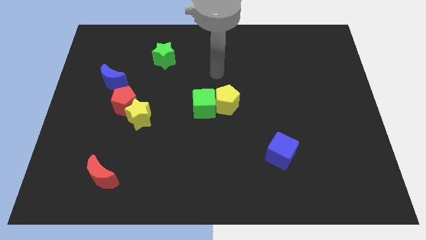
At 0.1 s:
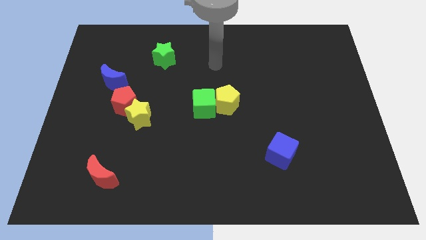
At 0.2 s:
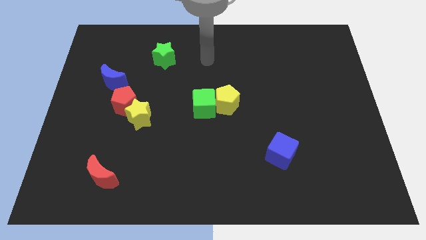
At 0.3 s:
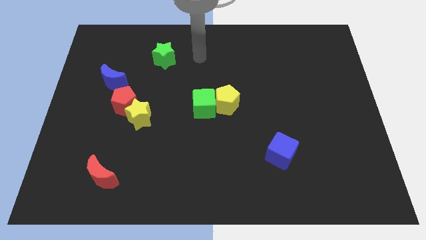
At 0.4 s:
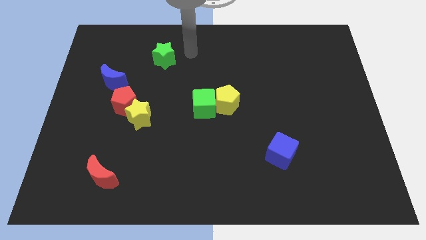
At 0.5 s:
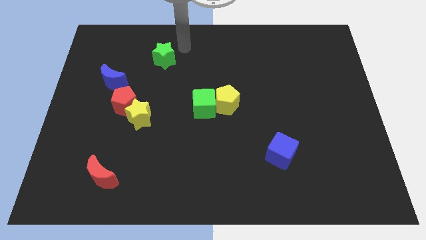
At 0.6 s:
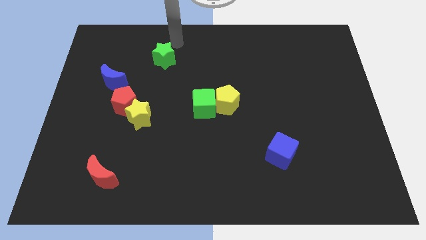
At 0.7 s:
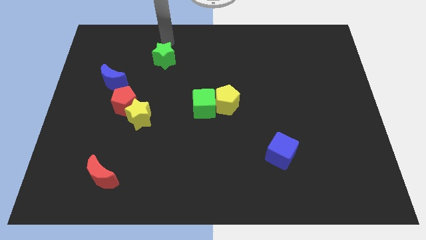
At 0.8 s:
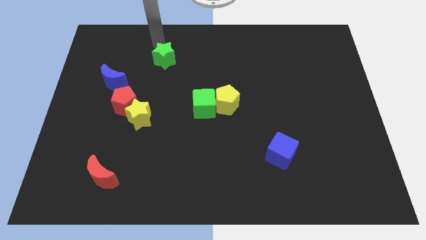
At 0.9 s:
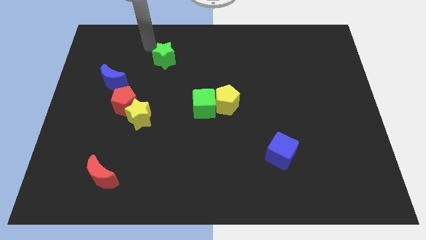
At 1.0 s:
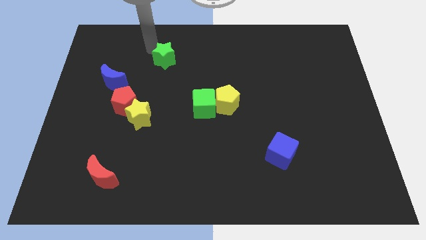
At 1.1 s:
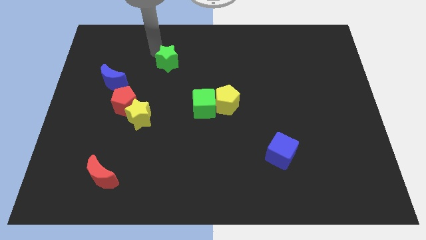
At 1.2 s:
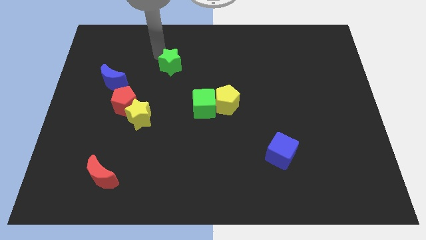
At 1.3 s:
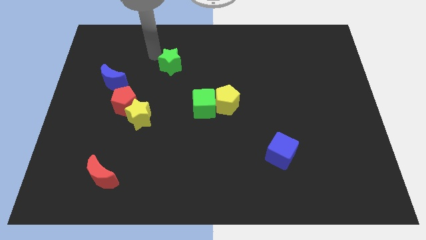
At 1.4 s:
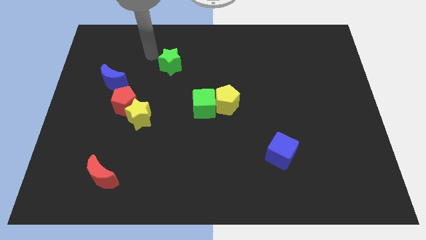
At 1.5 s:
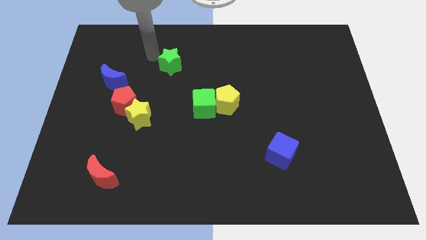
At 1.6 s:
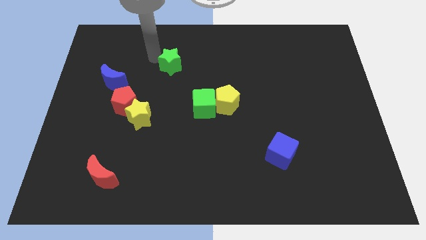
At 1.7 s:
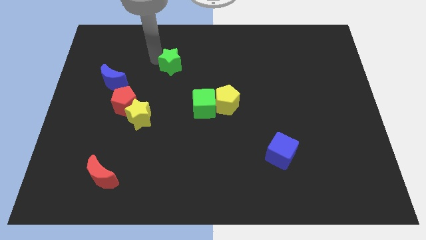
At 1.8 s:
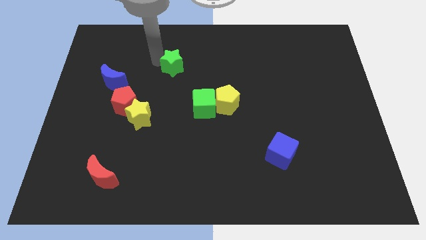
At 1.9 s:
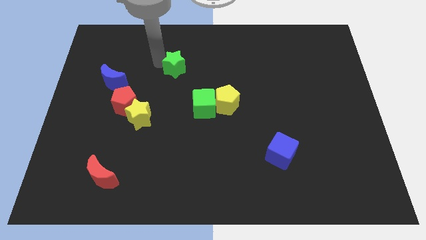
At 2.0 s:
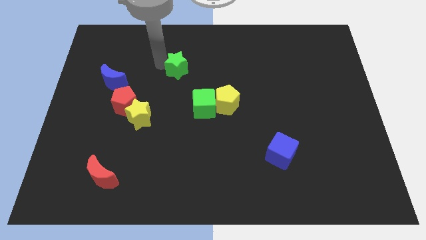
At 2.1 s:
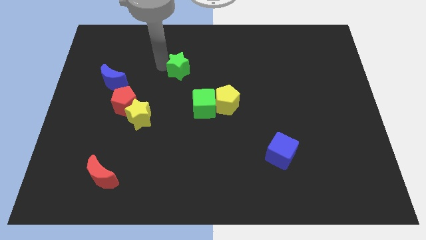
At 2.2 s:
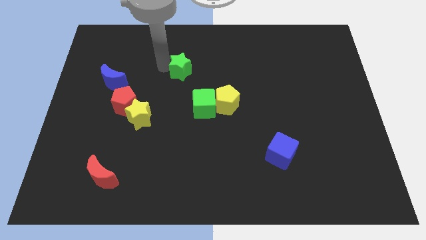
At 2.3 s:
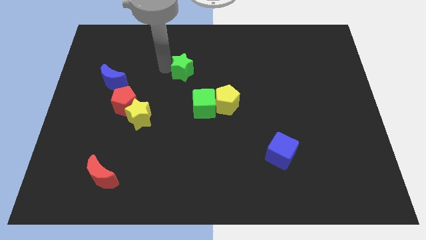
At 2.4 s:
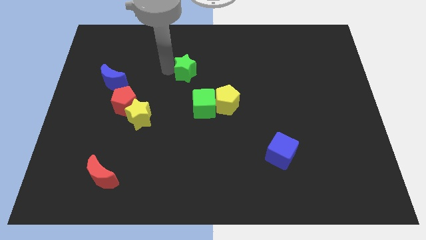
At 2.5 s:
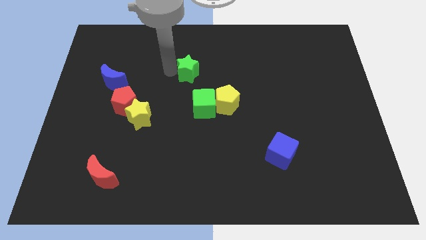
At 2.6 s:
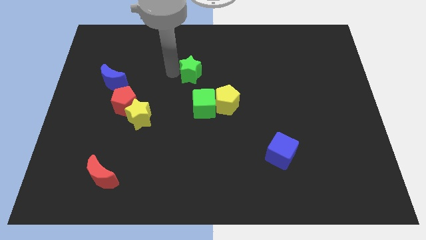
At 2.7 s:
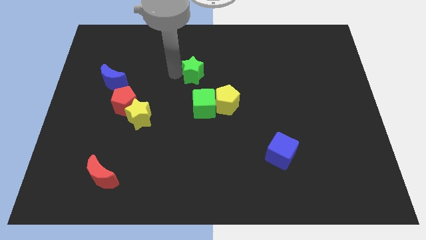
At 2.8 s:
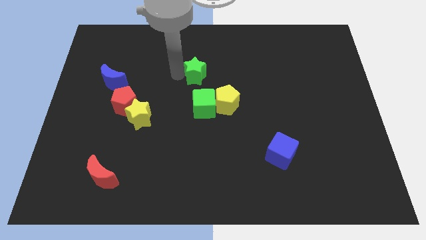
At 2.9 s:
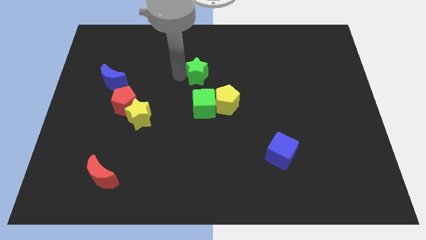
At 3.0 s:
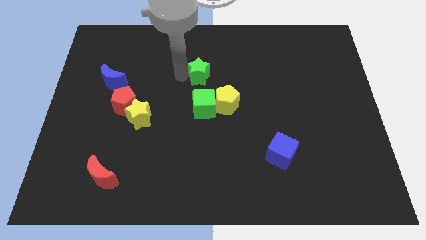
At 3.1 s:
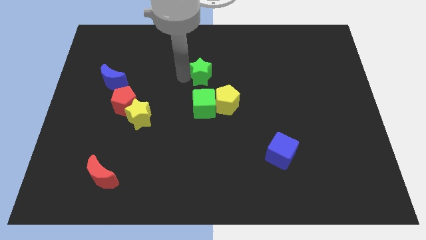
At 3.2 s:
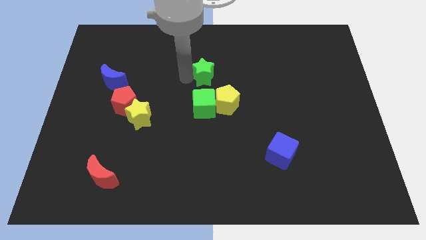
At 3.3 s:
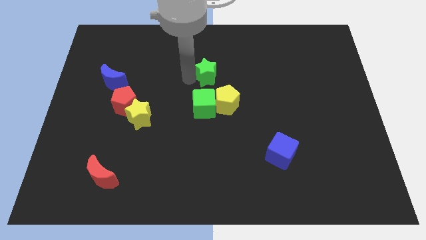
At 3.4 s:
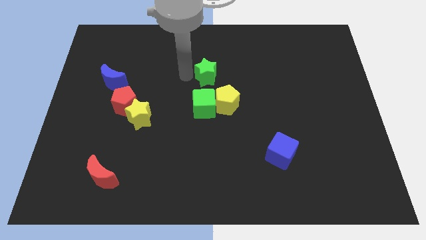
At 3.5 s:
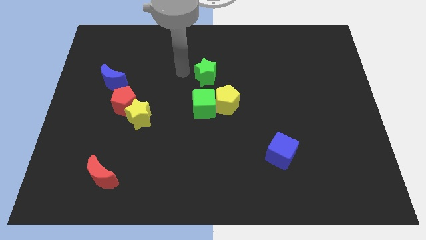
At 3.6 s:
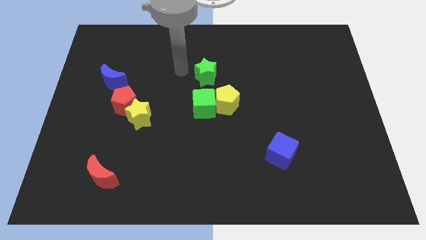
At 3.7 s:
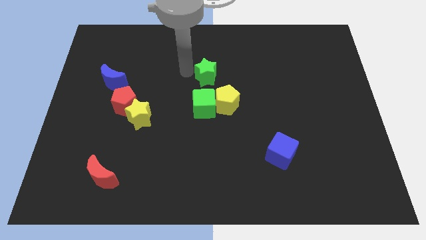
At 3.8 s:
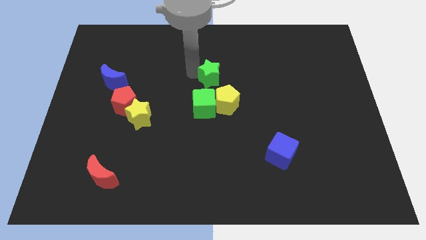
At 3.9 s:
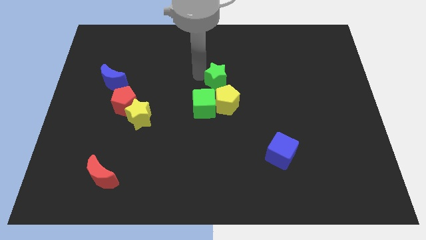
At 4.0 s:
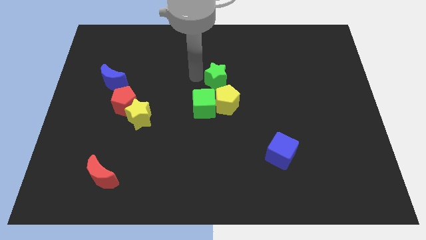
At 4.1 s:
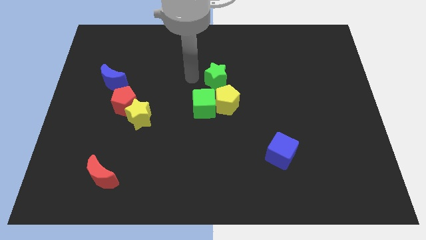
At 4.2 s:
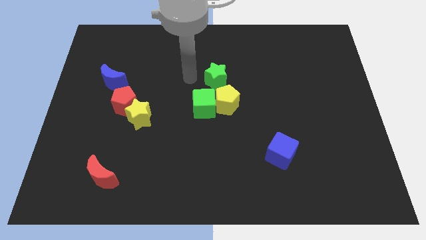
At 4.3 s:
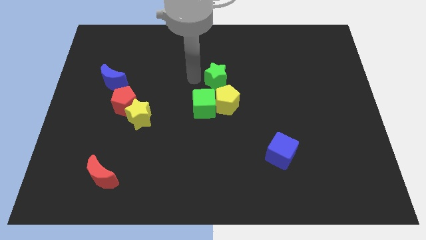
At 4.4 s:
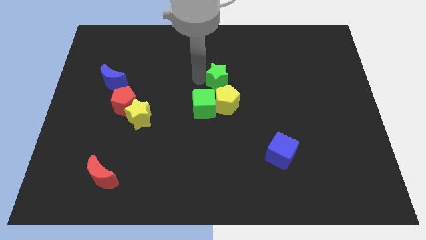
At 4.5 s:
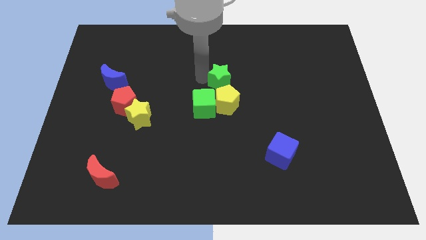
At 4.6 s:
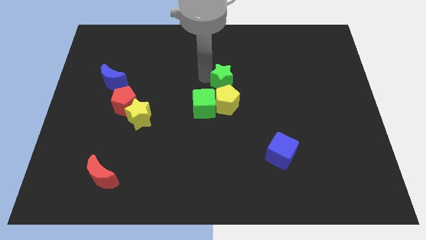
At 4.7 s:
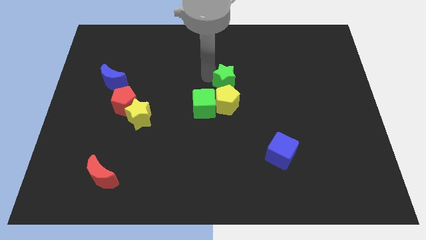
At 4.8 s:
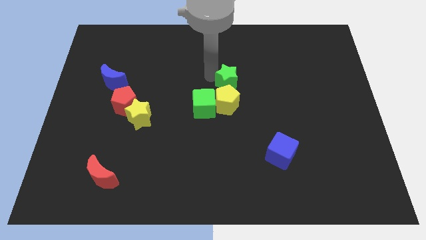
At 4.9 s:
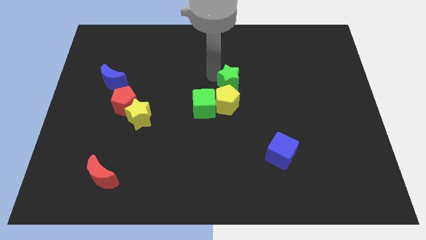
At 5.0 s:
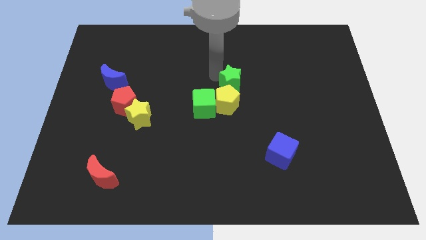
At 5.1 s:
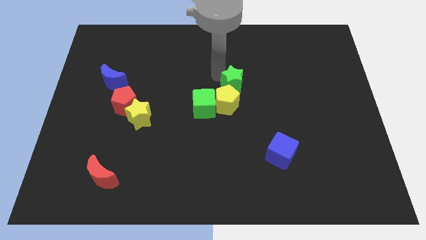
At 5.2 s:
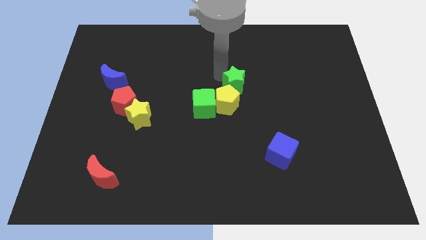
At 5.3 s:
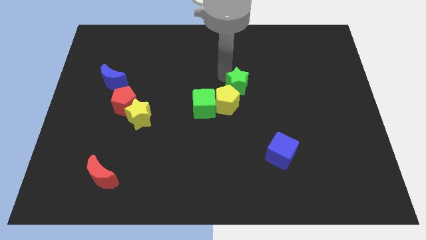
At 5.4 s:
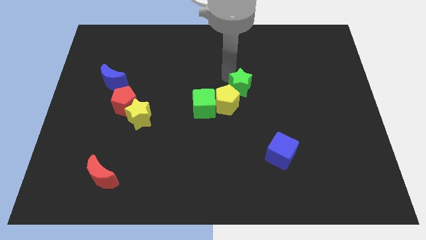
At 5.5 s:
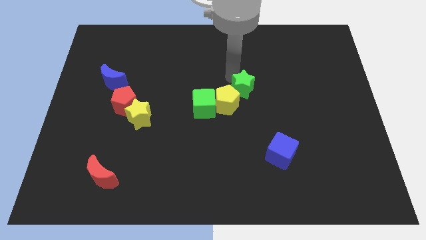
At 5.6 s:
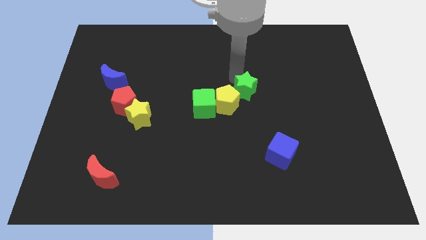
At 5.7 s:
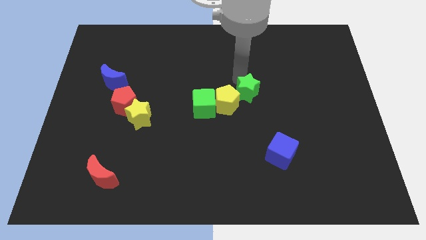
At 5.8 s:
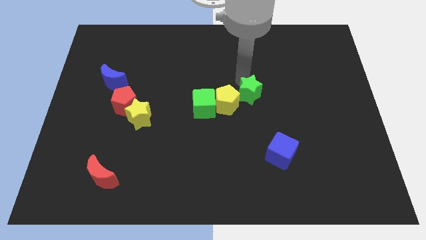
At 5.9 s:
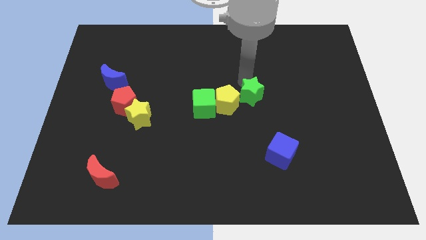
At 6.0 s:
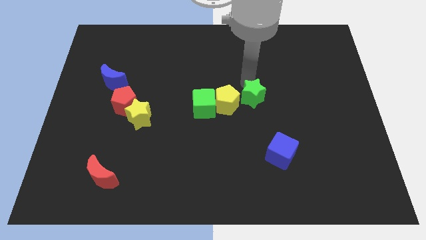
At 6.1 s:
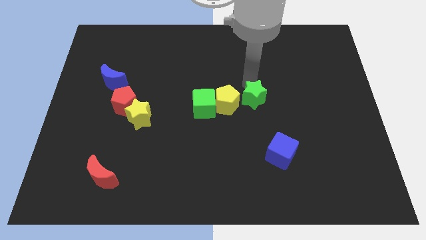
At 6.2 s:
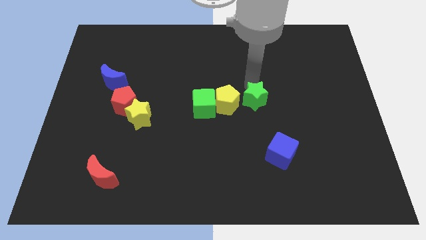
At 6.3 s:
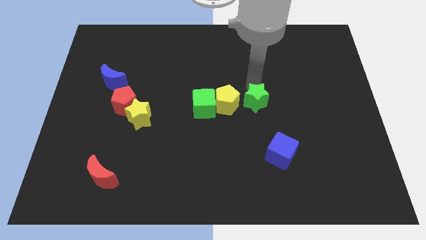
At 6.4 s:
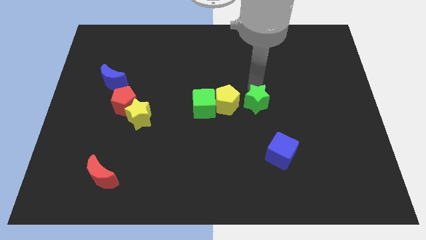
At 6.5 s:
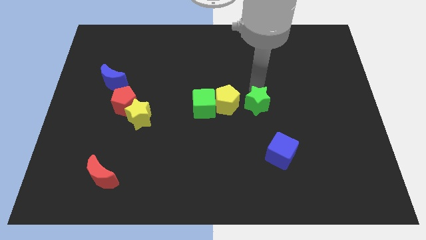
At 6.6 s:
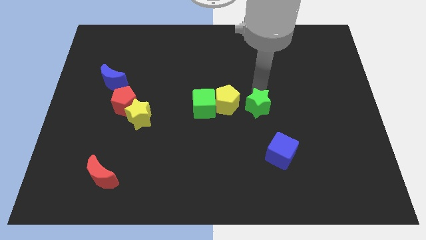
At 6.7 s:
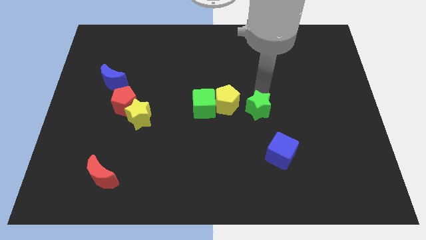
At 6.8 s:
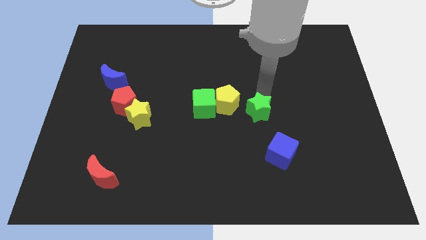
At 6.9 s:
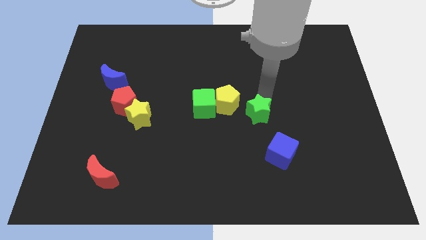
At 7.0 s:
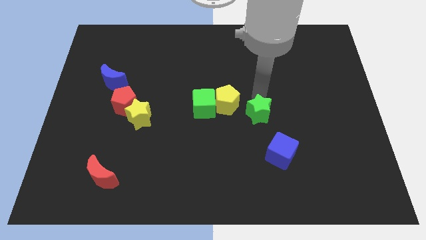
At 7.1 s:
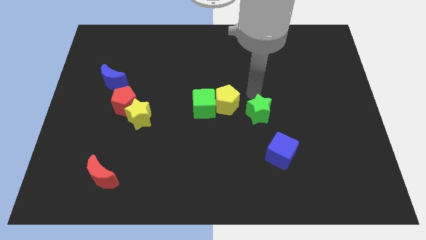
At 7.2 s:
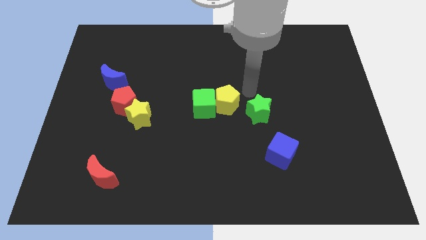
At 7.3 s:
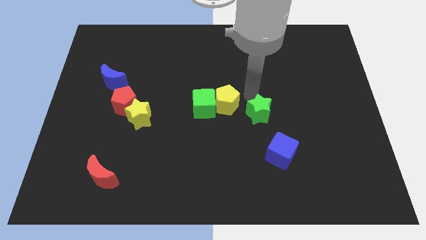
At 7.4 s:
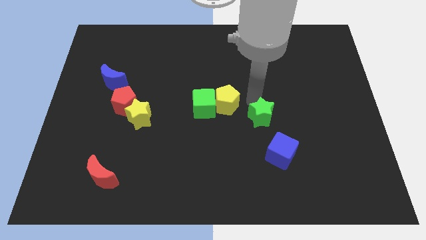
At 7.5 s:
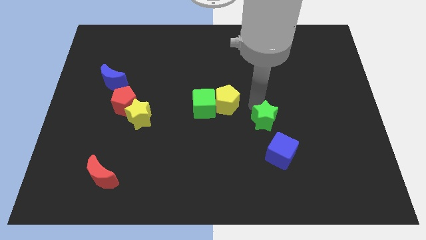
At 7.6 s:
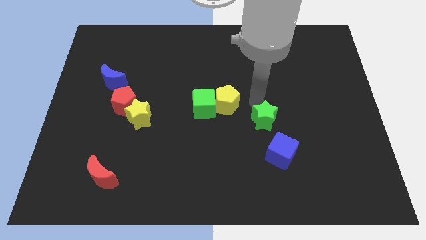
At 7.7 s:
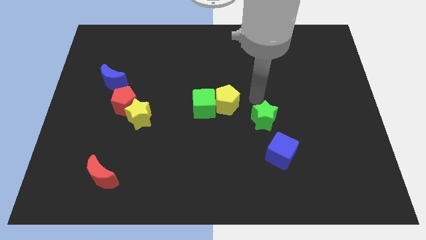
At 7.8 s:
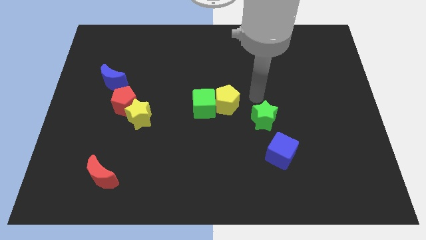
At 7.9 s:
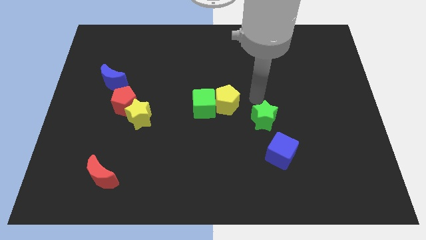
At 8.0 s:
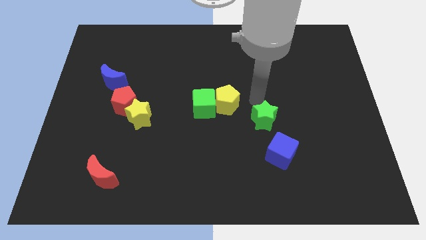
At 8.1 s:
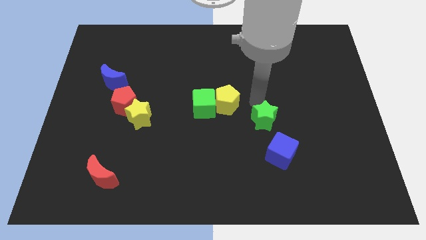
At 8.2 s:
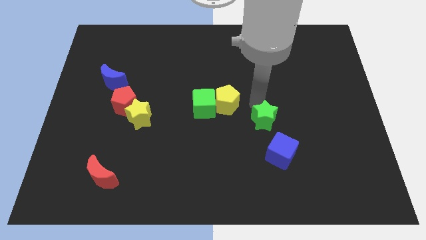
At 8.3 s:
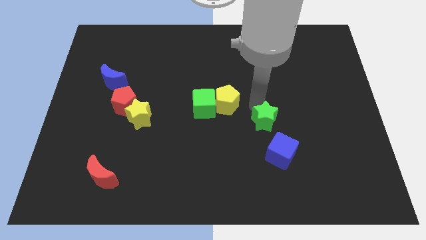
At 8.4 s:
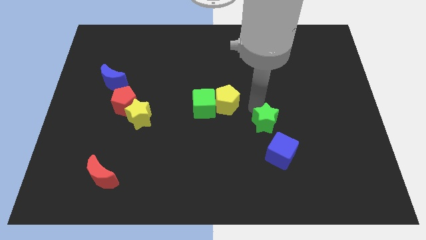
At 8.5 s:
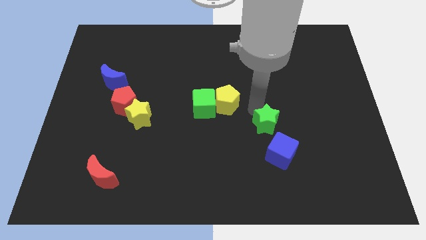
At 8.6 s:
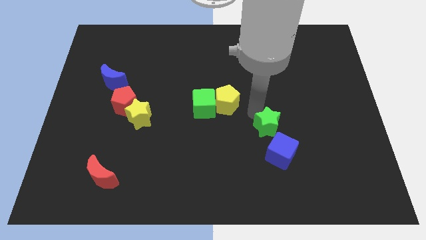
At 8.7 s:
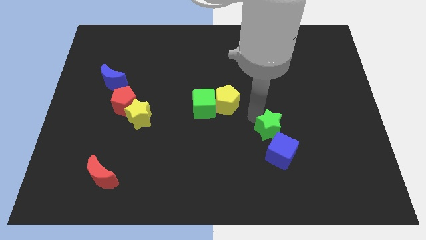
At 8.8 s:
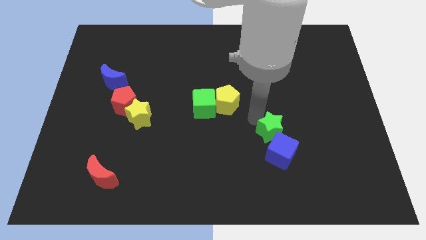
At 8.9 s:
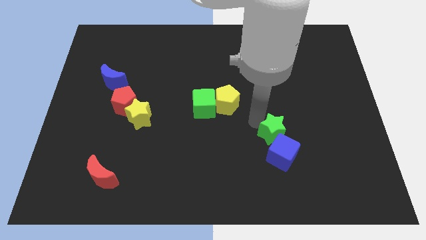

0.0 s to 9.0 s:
slide the green star towards the blue cube
